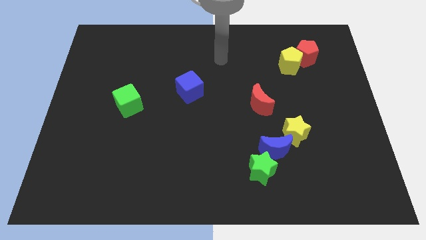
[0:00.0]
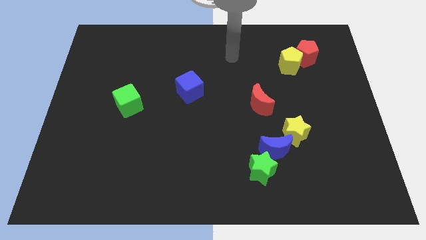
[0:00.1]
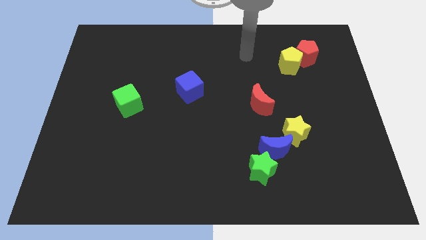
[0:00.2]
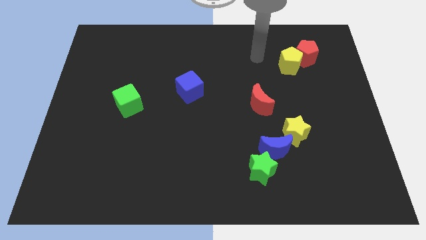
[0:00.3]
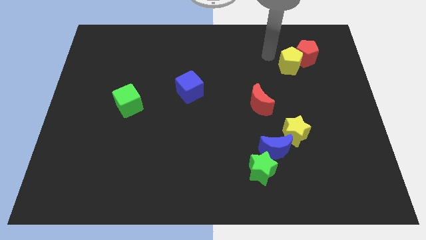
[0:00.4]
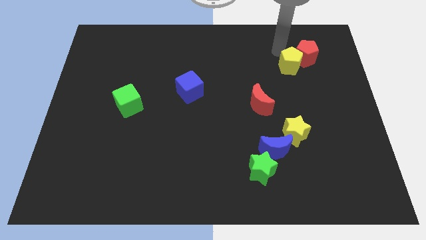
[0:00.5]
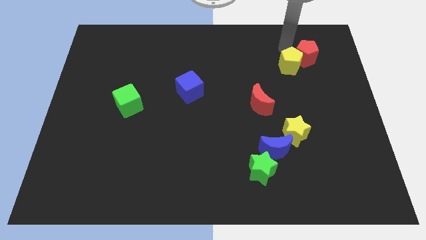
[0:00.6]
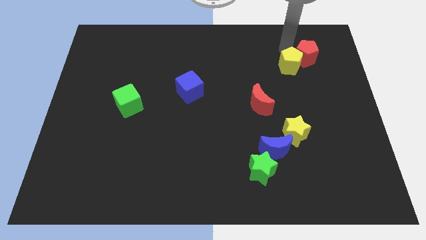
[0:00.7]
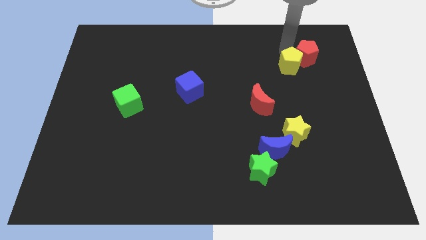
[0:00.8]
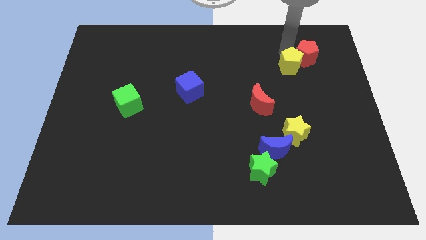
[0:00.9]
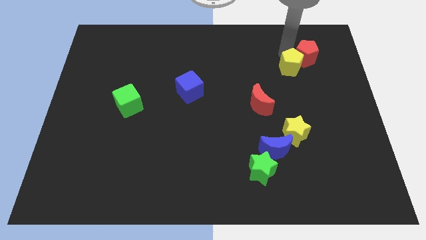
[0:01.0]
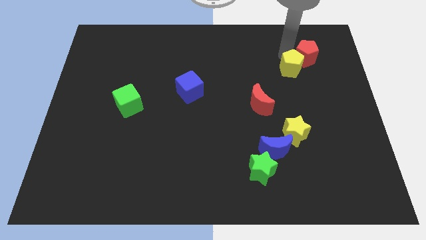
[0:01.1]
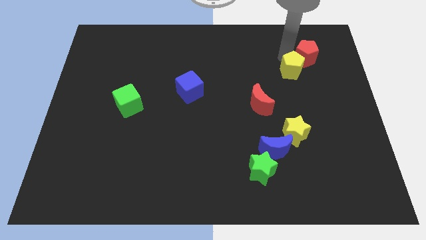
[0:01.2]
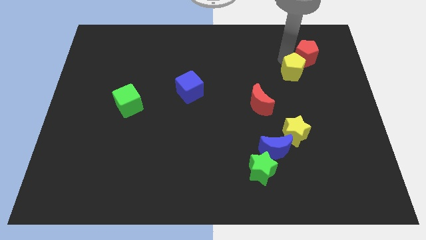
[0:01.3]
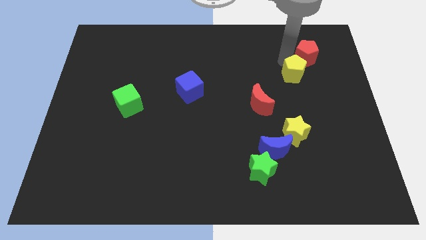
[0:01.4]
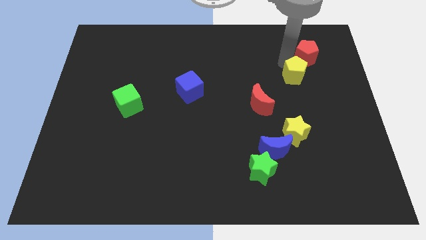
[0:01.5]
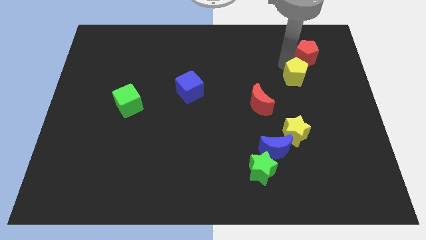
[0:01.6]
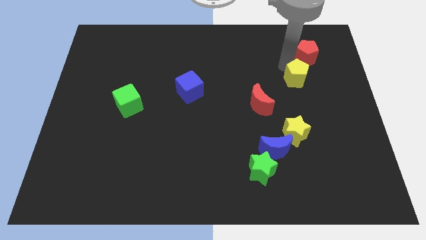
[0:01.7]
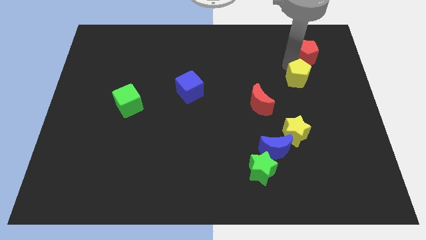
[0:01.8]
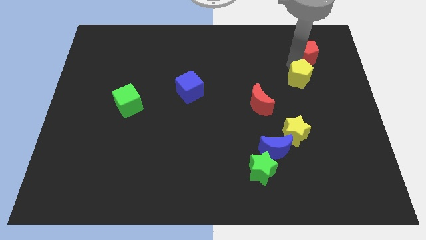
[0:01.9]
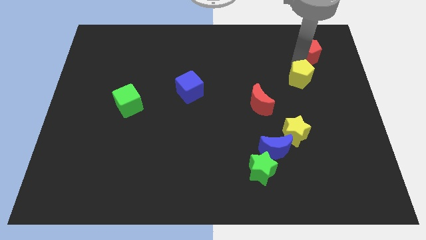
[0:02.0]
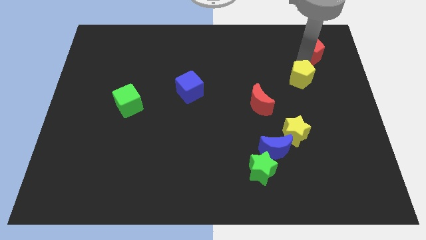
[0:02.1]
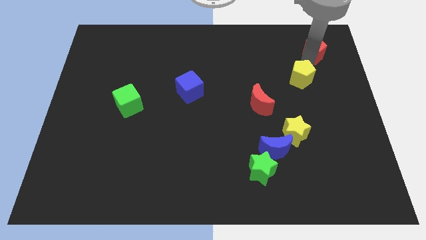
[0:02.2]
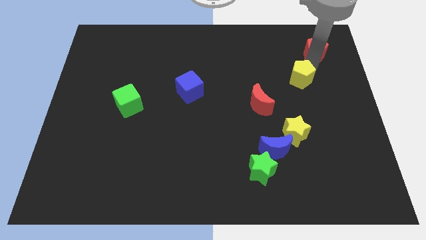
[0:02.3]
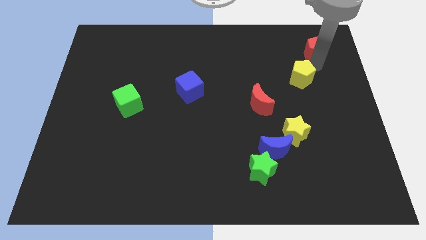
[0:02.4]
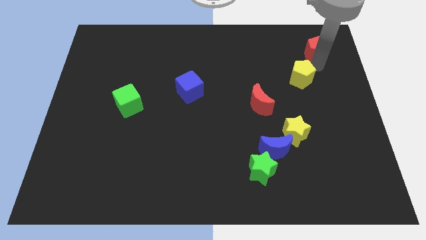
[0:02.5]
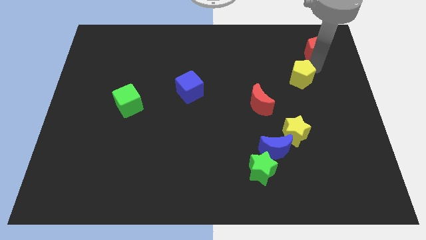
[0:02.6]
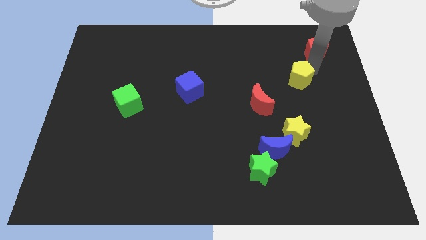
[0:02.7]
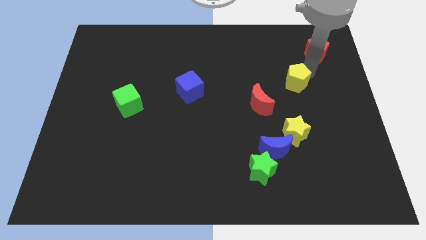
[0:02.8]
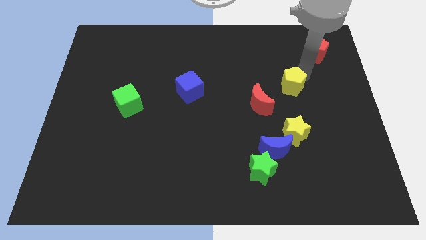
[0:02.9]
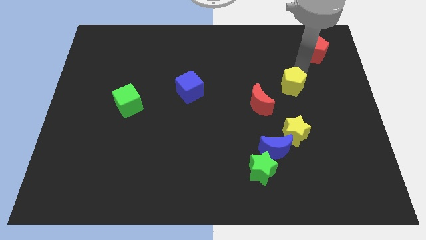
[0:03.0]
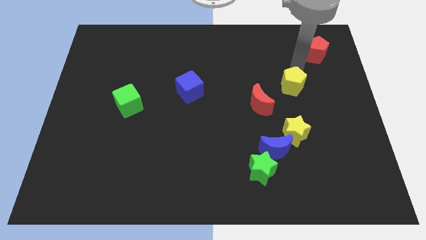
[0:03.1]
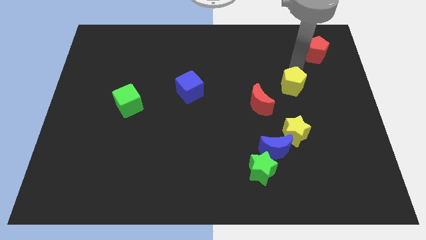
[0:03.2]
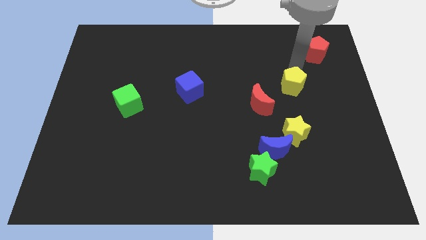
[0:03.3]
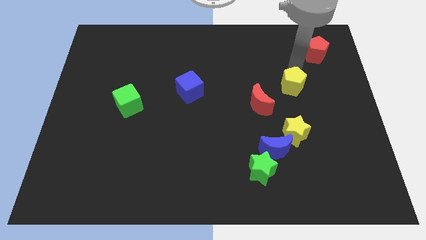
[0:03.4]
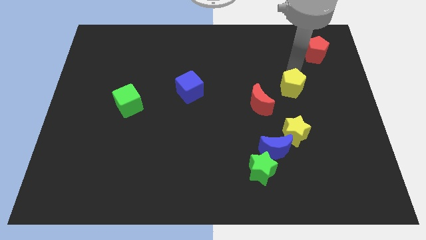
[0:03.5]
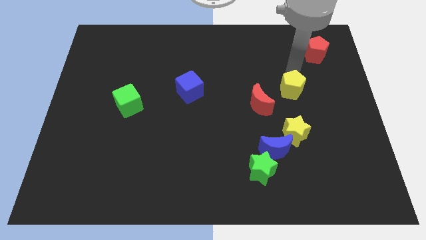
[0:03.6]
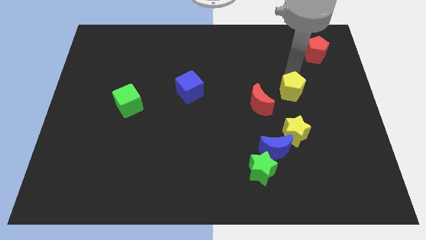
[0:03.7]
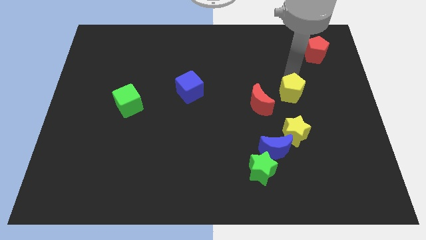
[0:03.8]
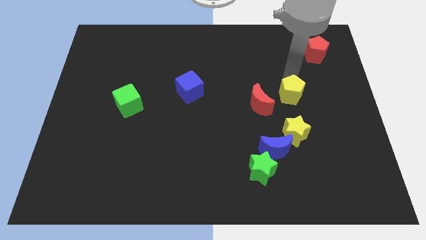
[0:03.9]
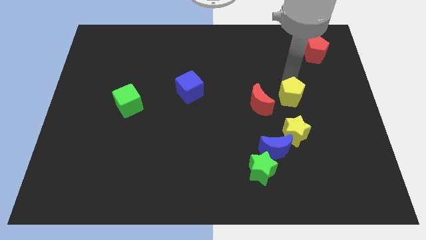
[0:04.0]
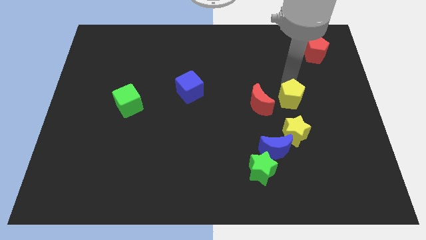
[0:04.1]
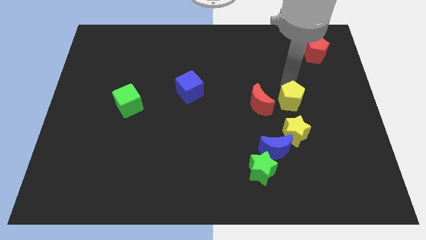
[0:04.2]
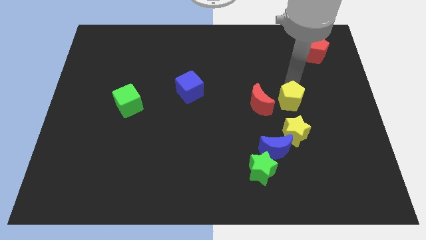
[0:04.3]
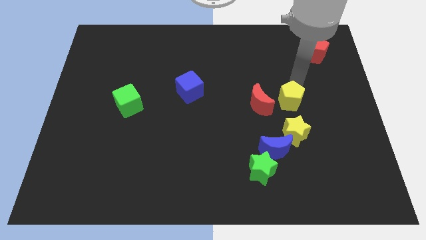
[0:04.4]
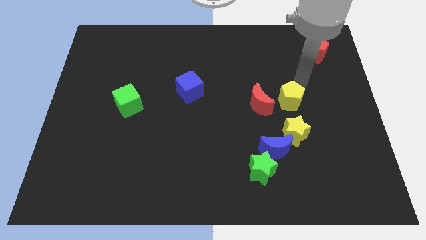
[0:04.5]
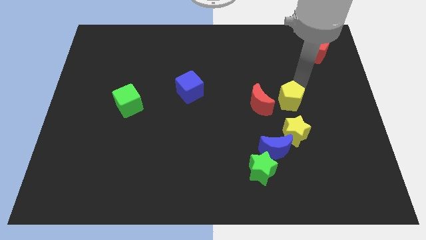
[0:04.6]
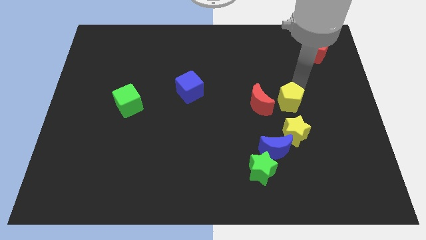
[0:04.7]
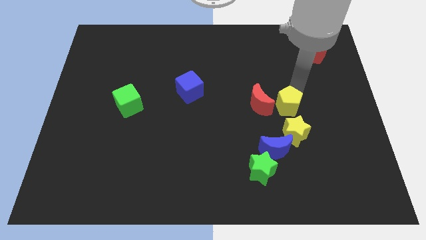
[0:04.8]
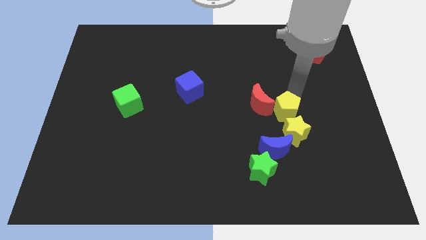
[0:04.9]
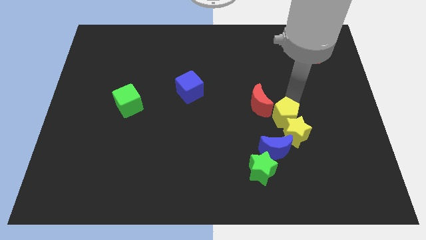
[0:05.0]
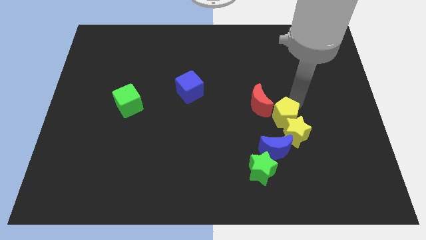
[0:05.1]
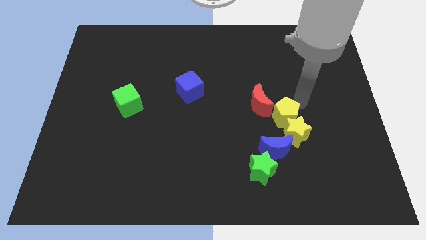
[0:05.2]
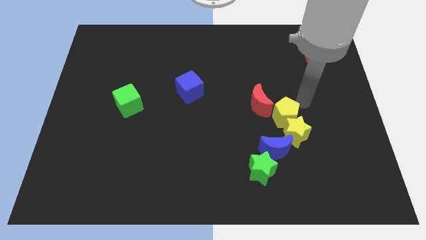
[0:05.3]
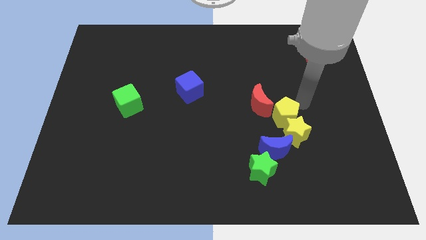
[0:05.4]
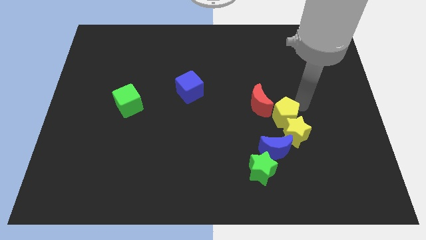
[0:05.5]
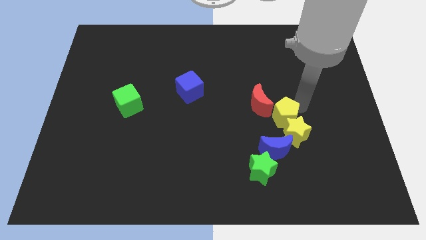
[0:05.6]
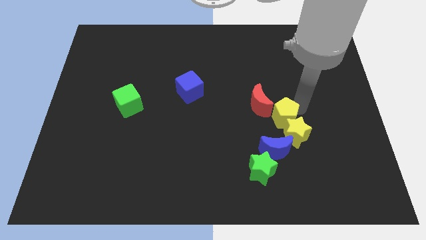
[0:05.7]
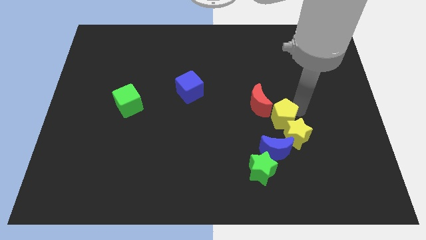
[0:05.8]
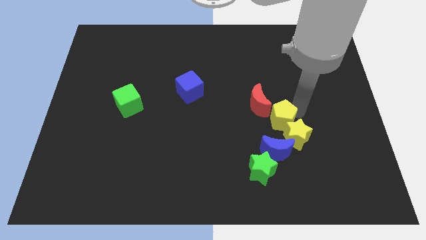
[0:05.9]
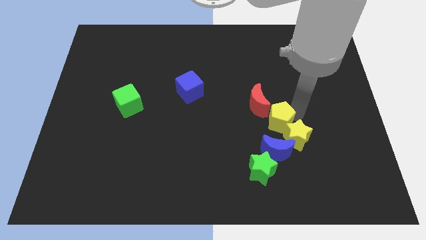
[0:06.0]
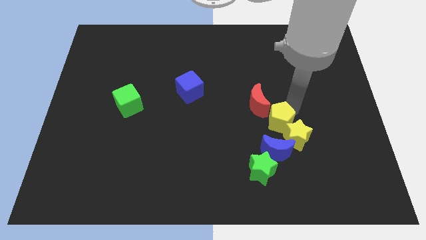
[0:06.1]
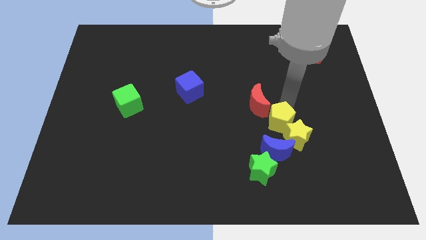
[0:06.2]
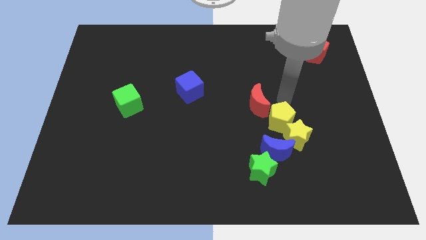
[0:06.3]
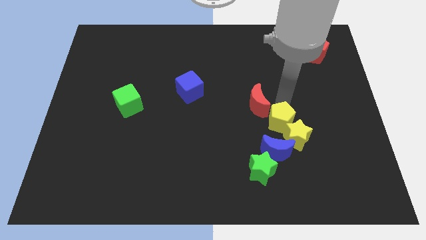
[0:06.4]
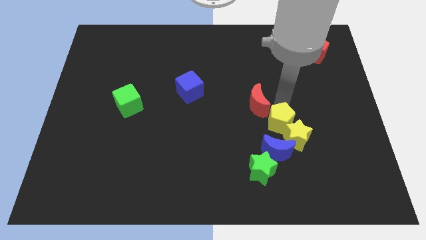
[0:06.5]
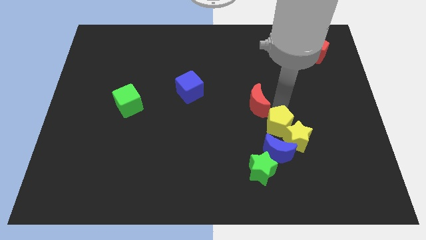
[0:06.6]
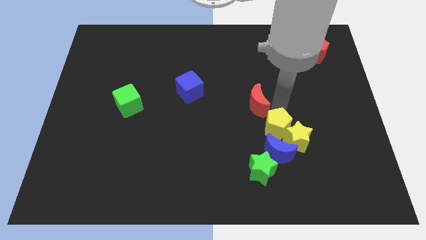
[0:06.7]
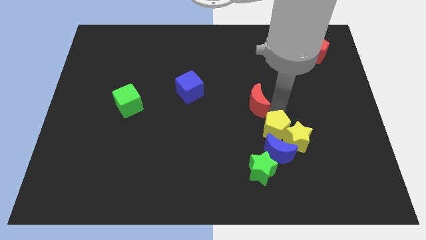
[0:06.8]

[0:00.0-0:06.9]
slide the yellow pentagon to the blue moon
